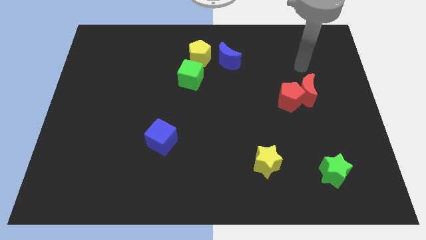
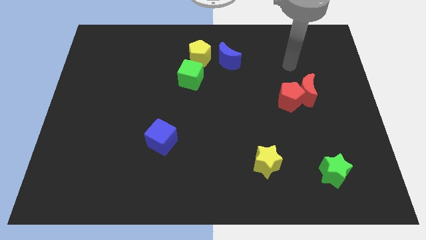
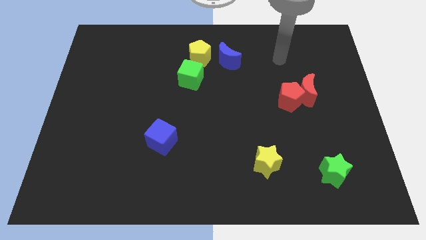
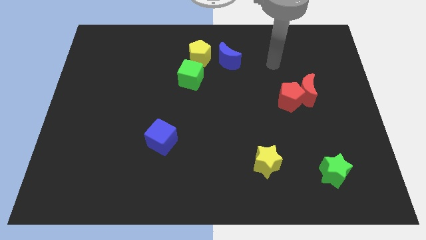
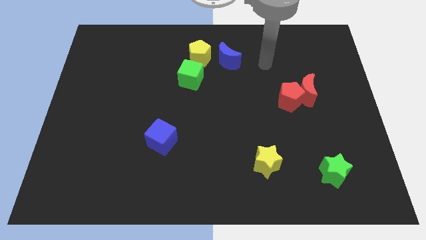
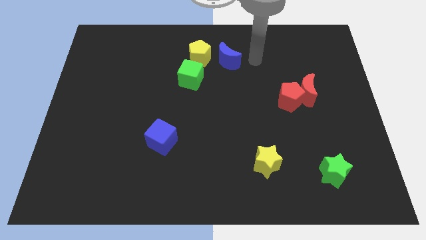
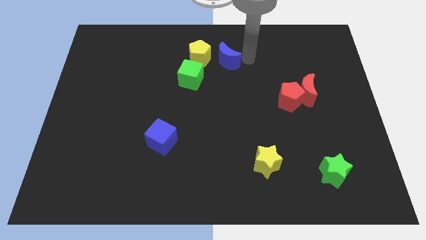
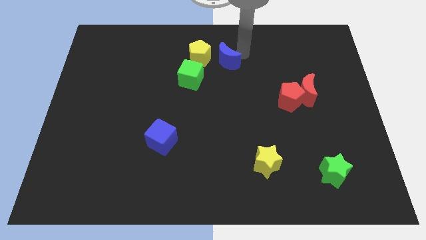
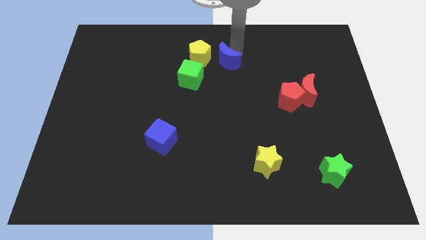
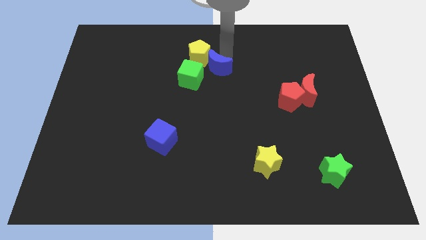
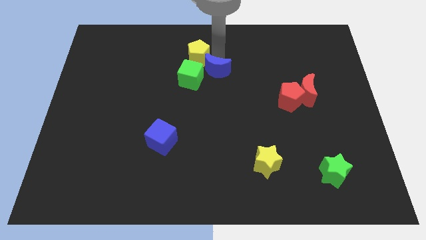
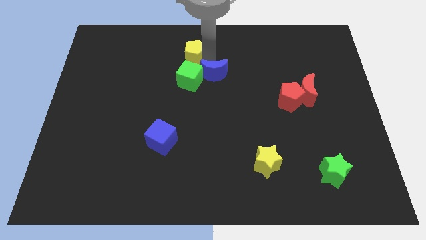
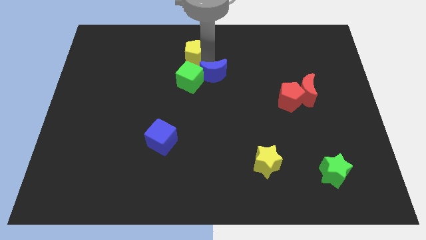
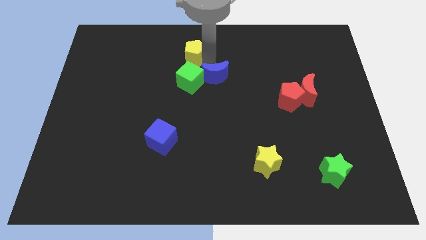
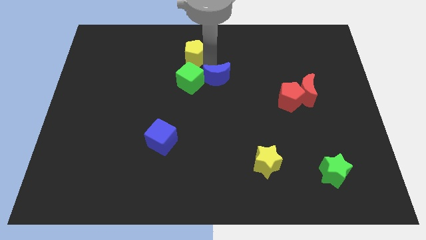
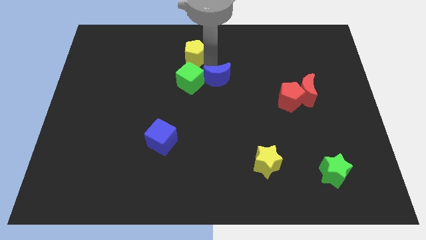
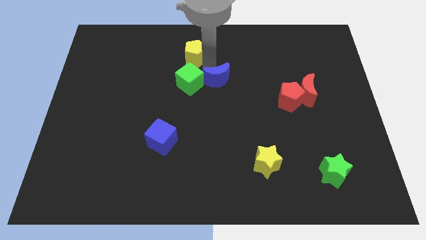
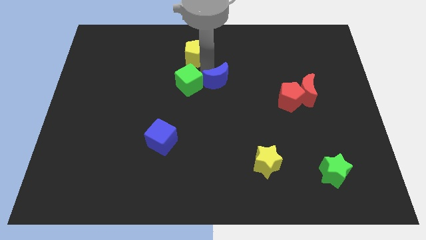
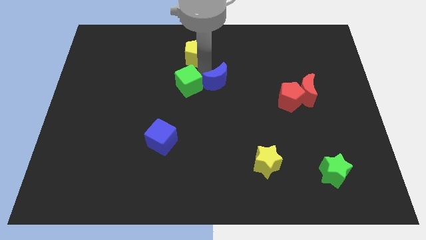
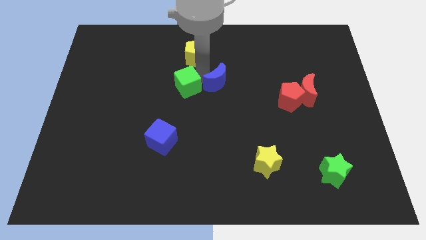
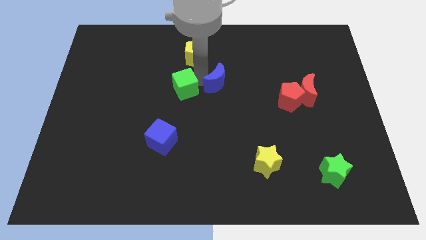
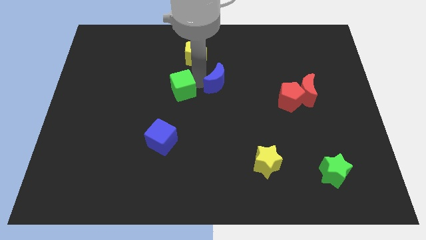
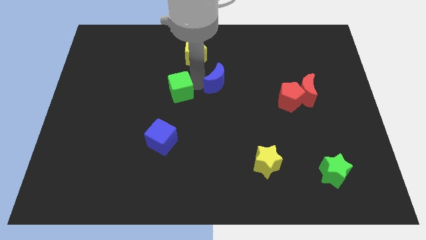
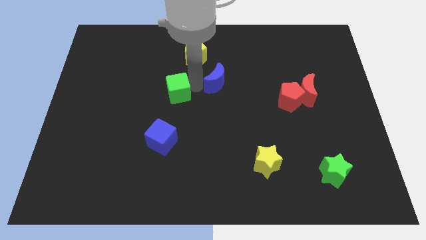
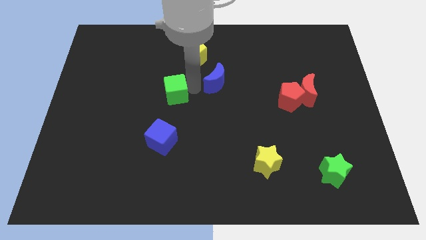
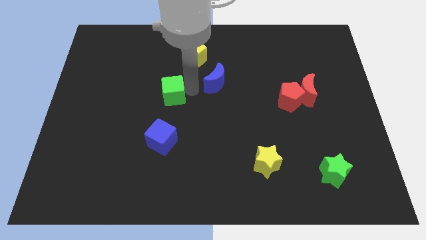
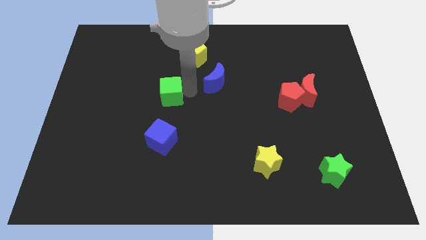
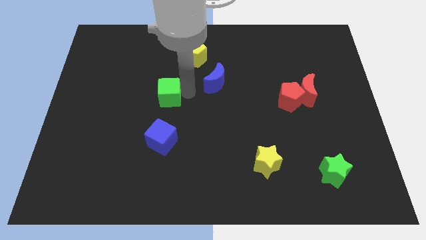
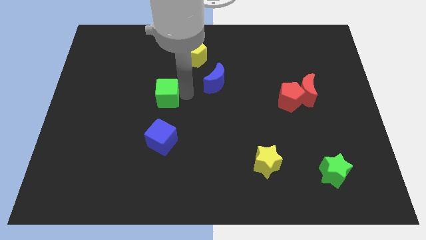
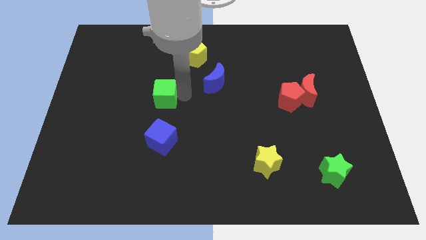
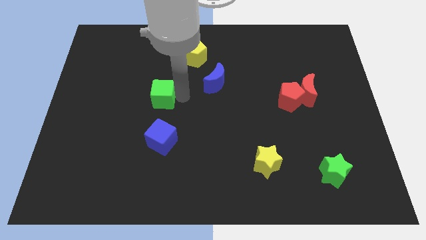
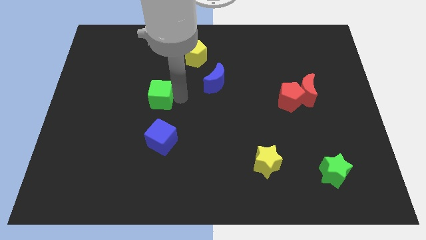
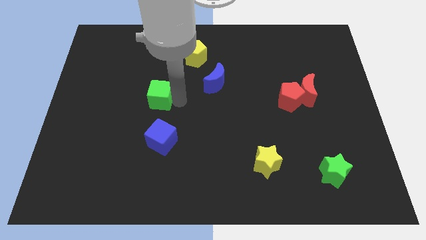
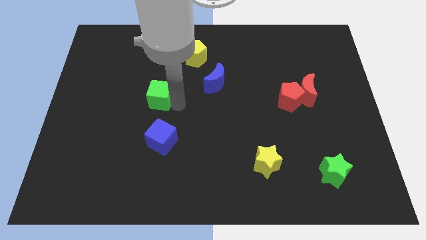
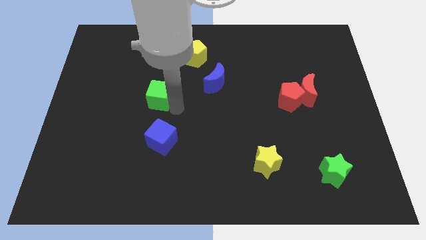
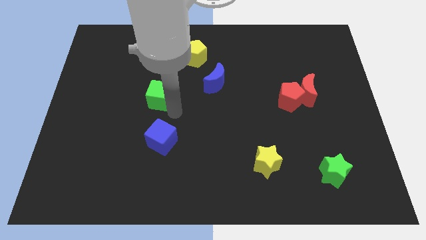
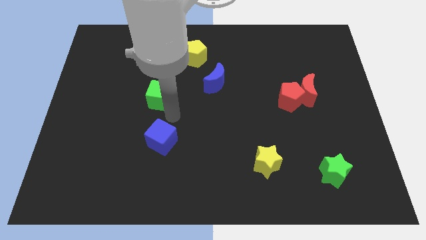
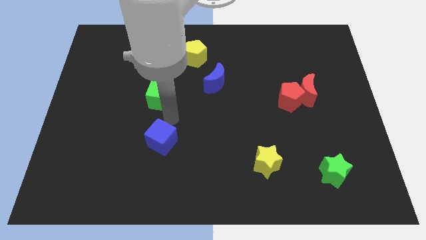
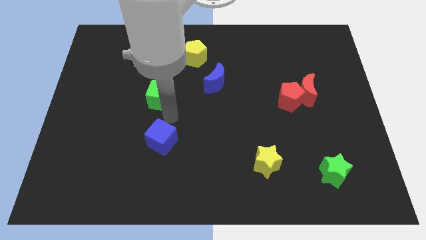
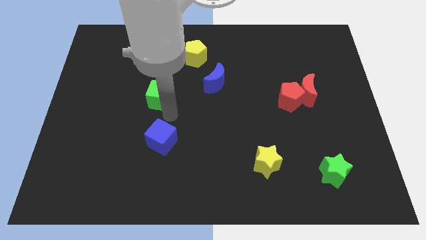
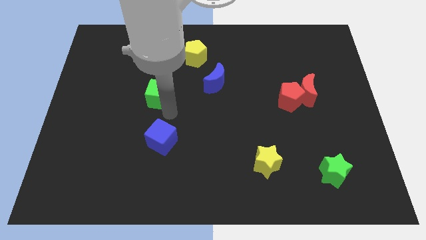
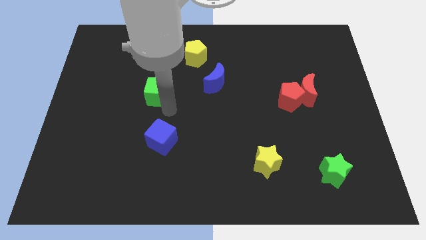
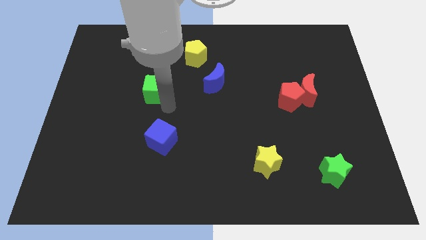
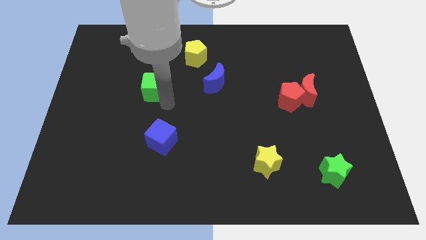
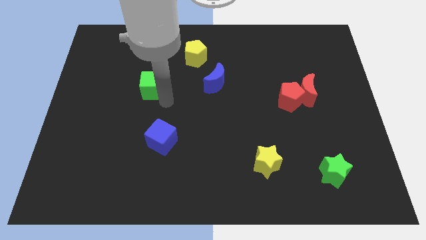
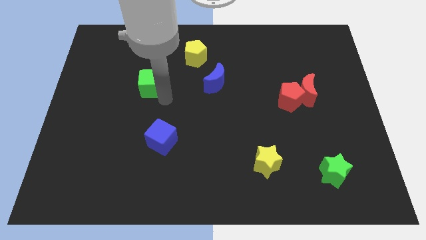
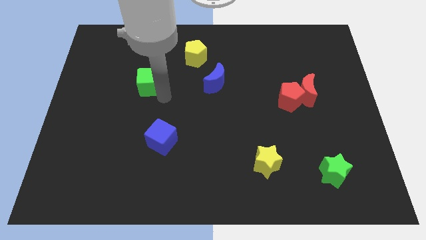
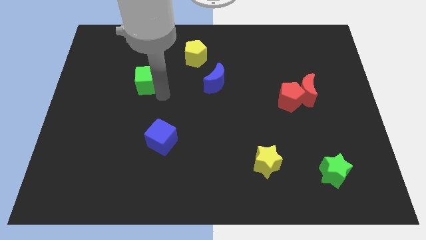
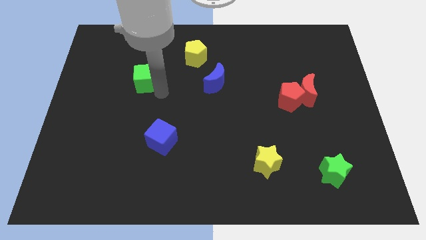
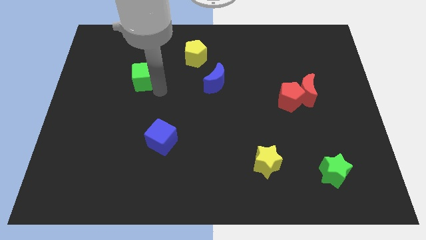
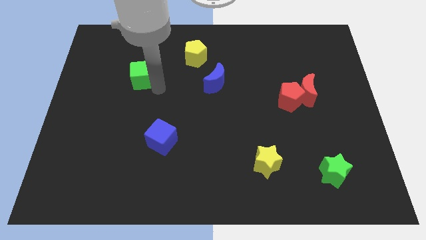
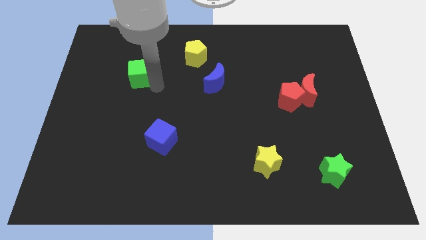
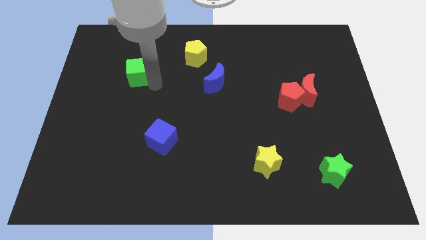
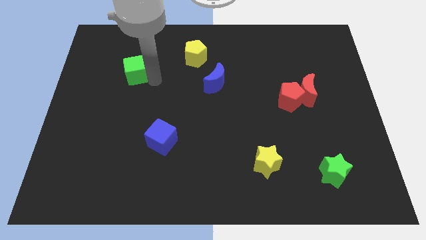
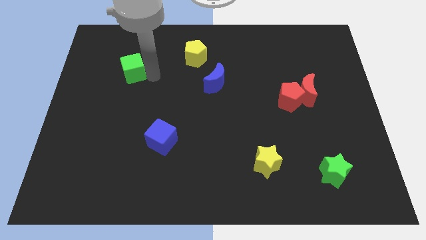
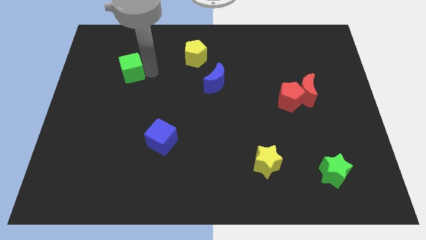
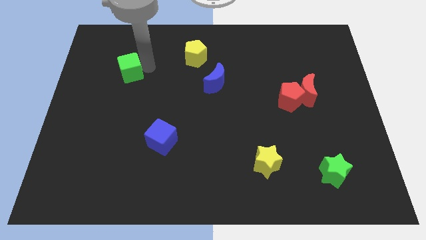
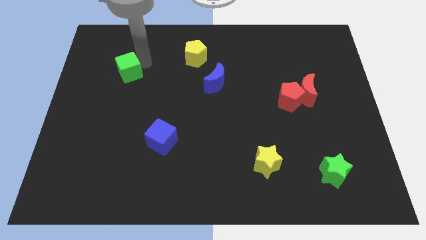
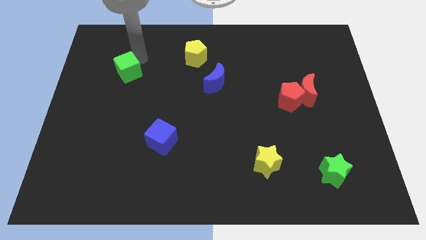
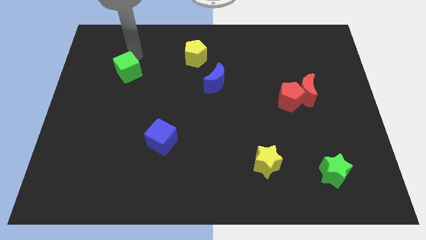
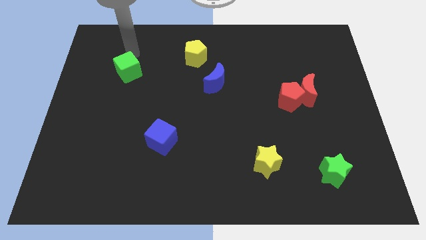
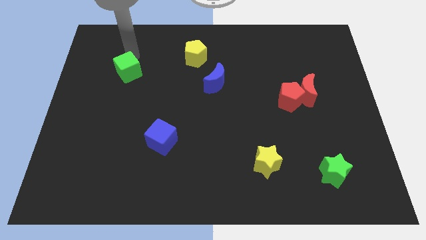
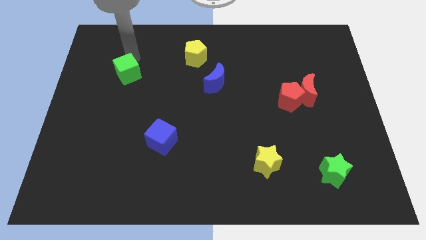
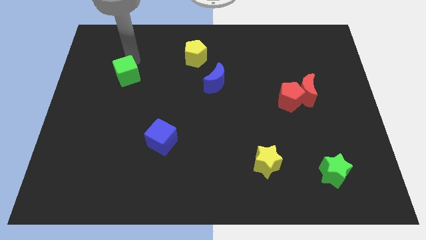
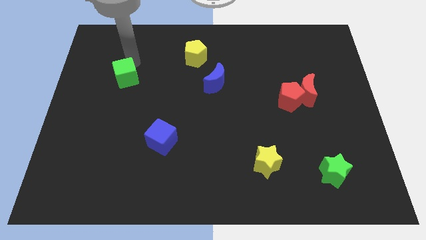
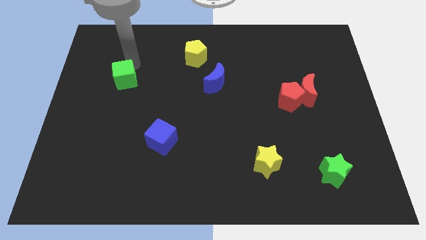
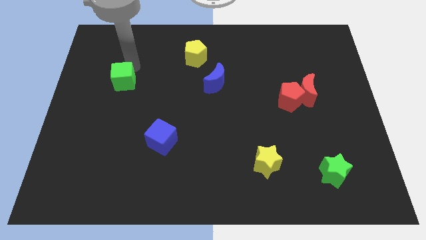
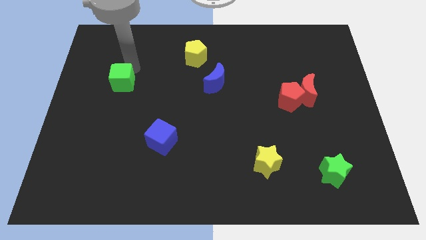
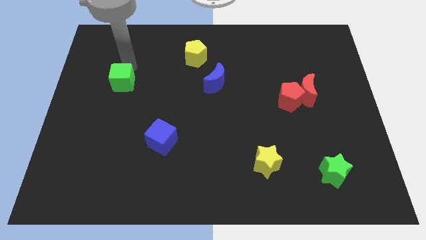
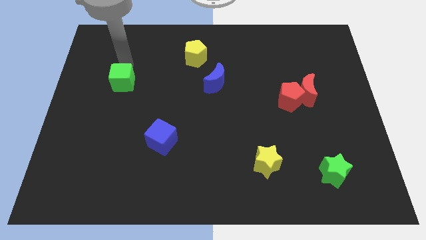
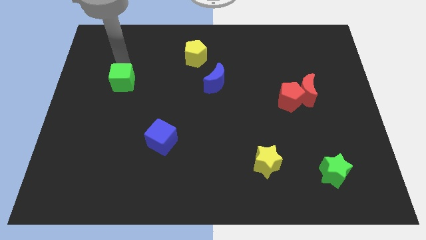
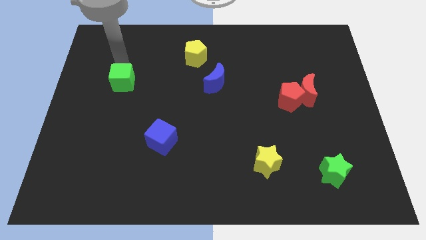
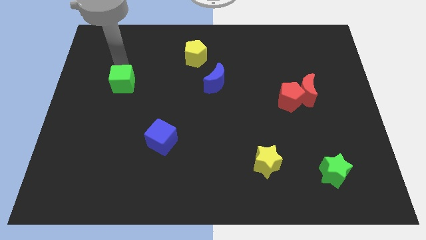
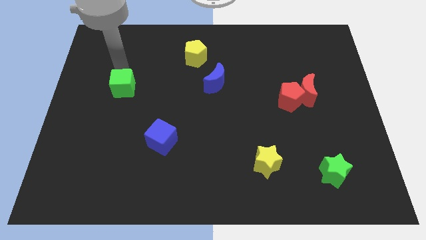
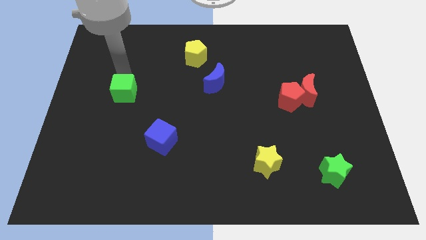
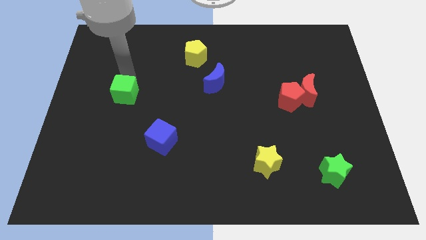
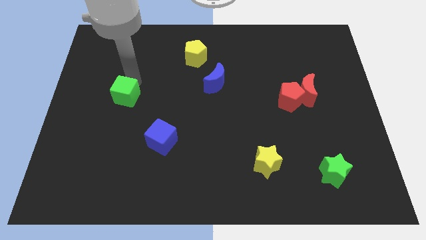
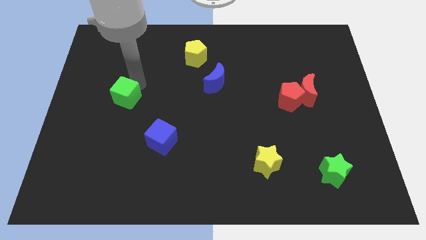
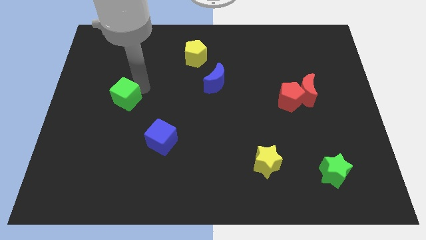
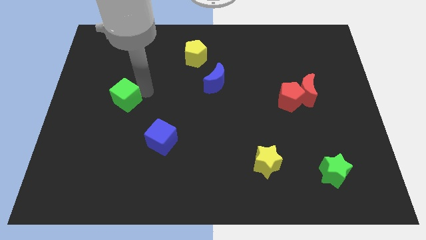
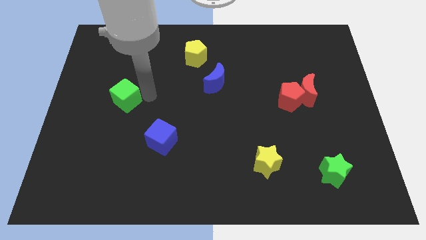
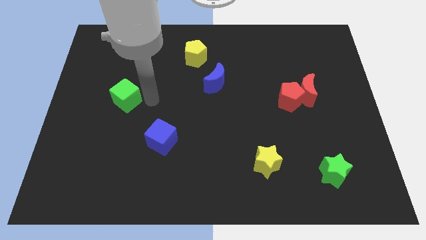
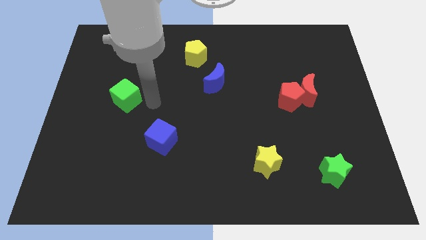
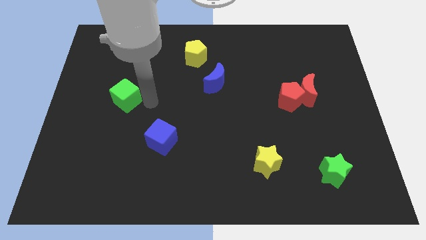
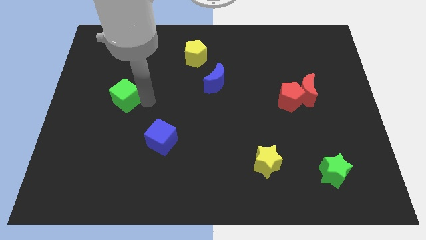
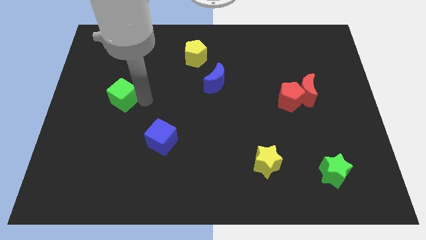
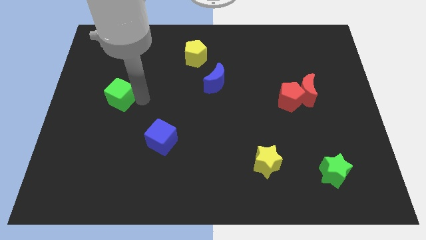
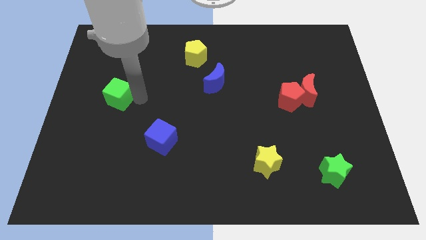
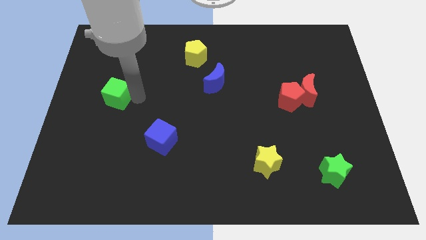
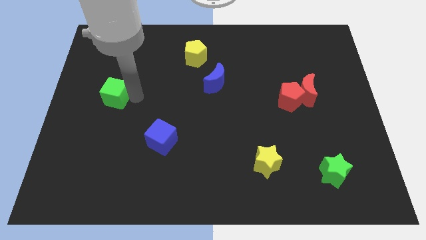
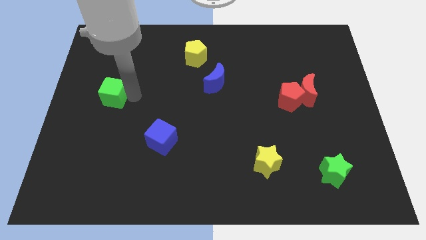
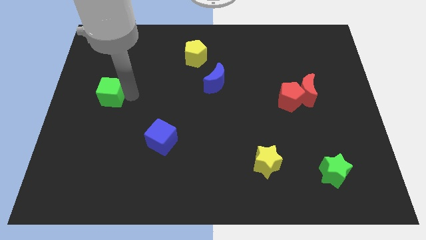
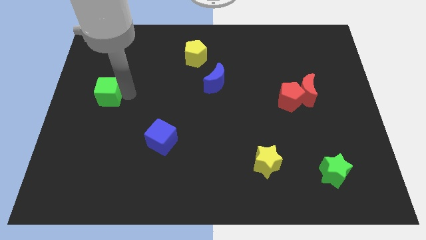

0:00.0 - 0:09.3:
push the green cube to the left side
